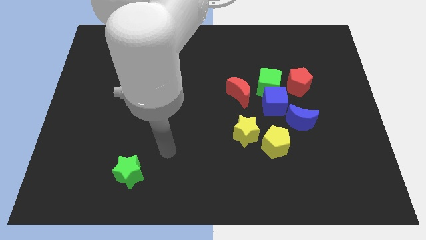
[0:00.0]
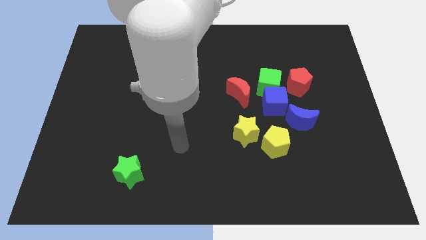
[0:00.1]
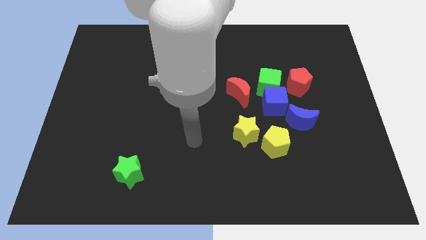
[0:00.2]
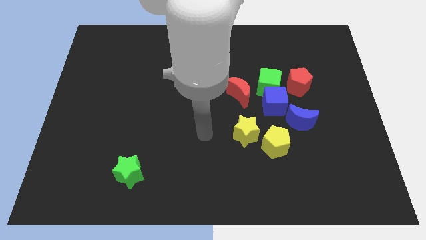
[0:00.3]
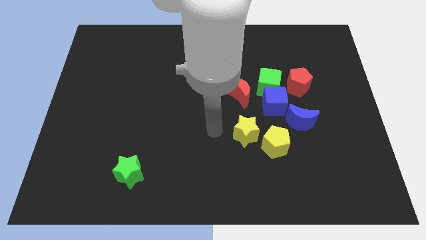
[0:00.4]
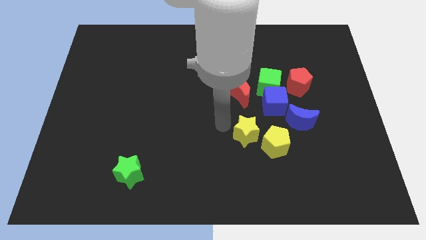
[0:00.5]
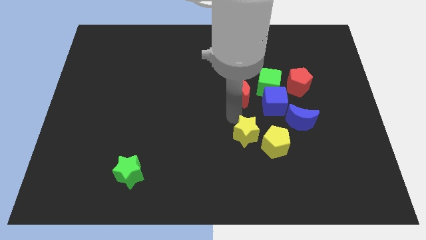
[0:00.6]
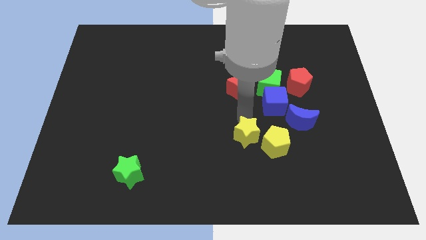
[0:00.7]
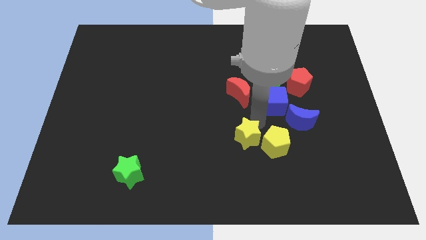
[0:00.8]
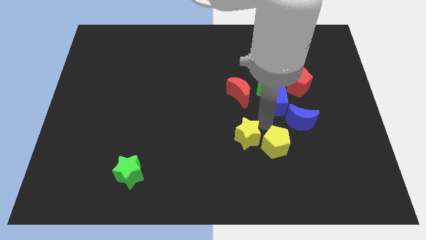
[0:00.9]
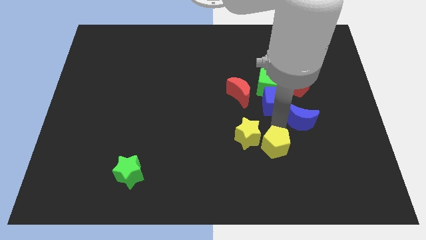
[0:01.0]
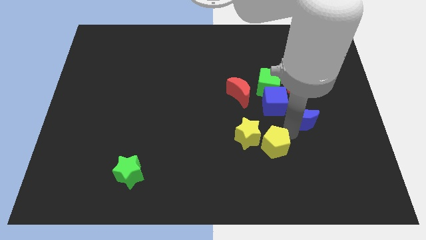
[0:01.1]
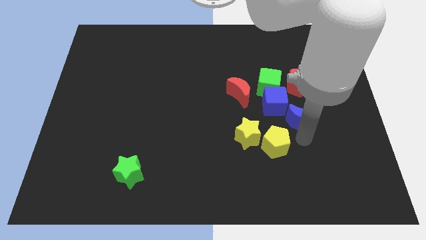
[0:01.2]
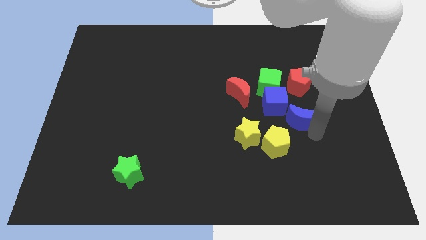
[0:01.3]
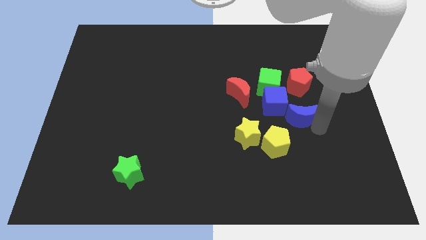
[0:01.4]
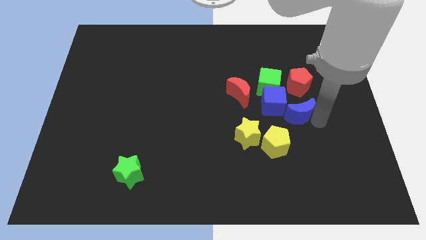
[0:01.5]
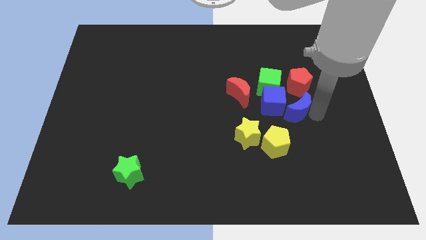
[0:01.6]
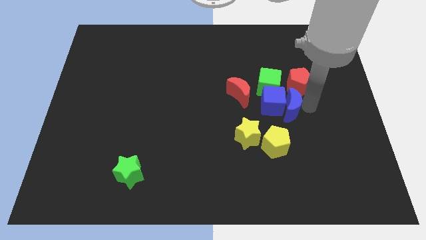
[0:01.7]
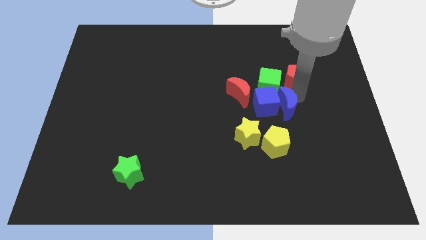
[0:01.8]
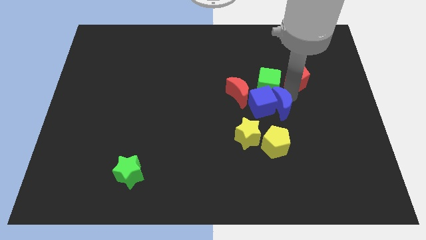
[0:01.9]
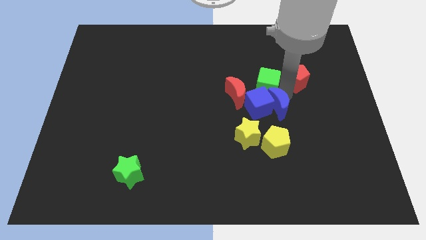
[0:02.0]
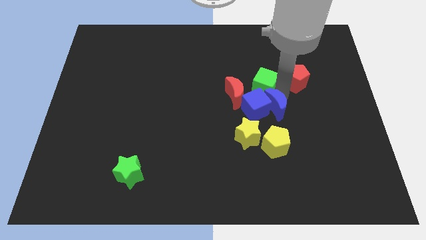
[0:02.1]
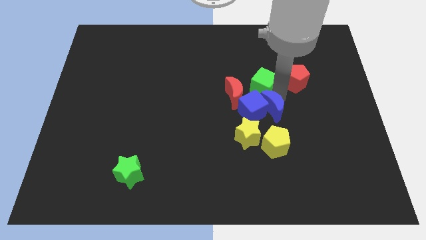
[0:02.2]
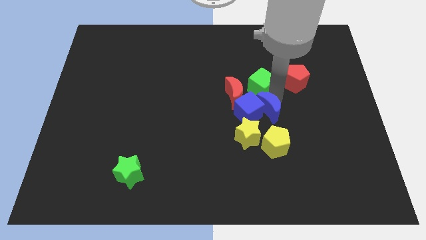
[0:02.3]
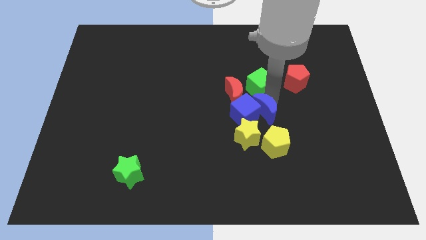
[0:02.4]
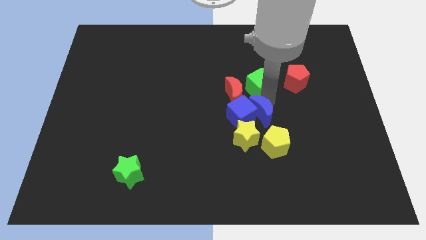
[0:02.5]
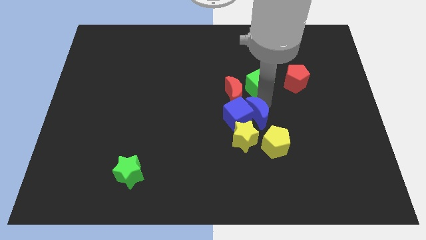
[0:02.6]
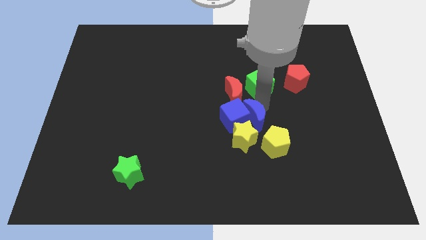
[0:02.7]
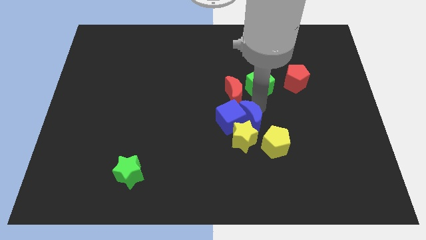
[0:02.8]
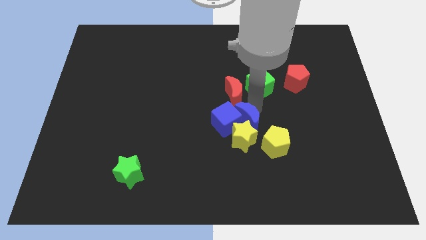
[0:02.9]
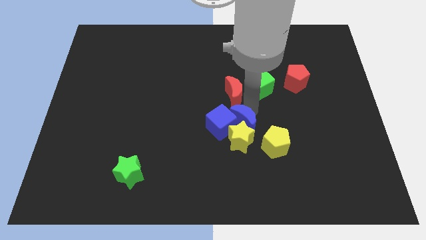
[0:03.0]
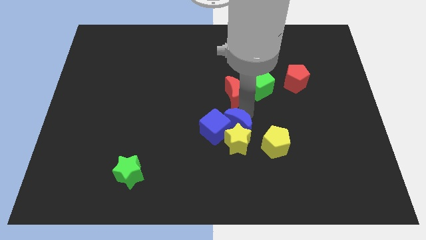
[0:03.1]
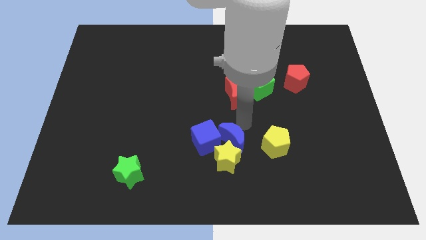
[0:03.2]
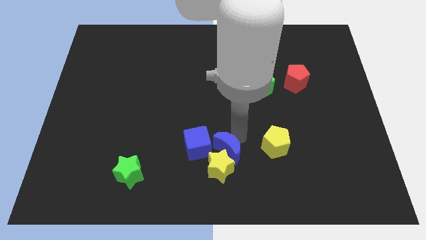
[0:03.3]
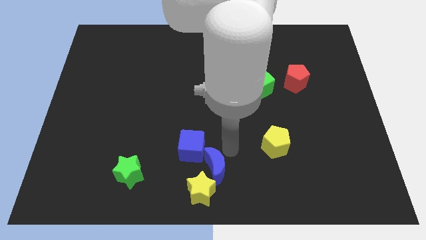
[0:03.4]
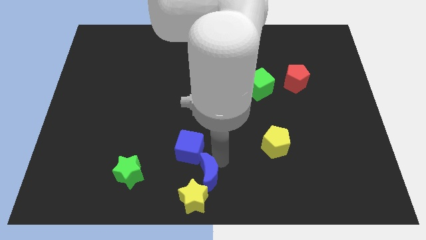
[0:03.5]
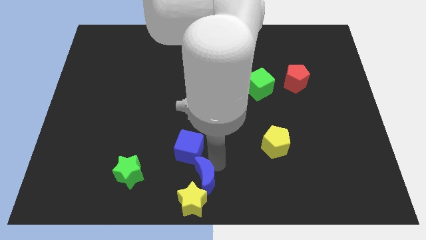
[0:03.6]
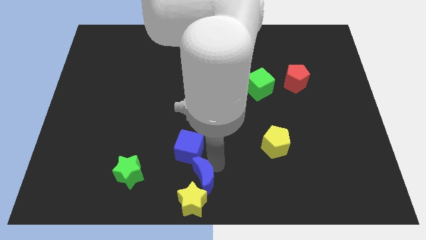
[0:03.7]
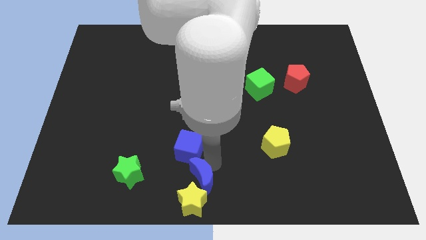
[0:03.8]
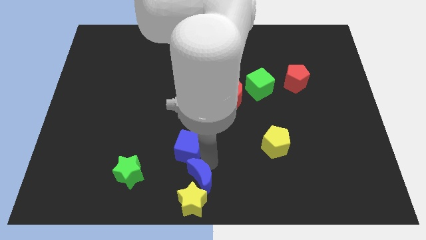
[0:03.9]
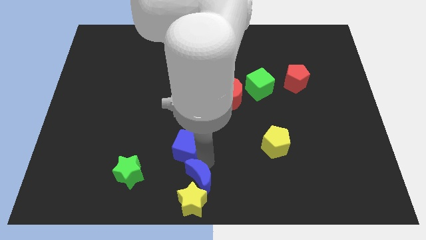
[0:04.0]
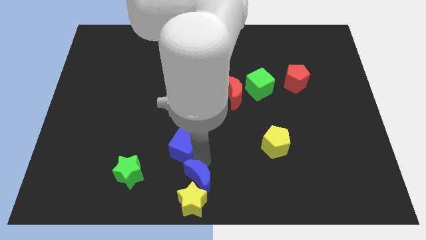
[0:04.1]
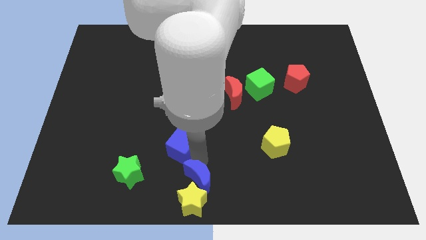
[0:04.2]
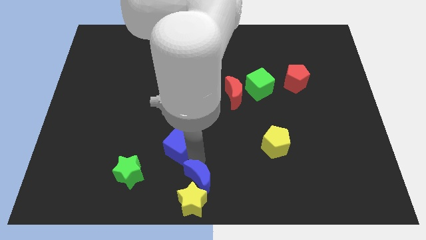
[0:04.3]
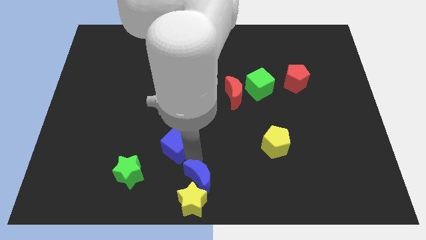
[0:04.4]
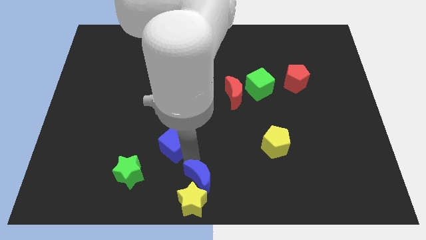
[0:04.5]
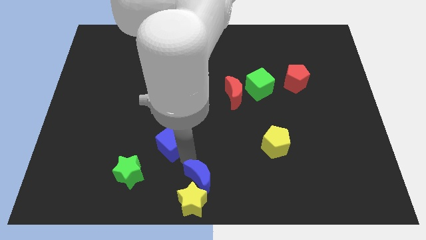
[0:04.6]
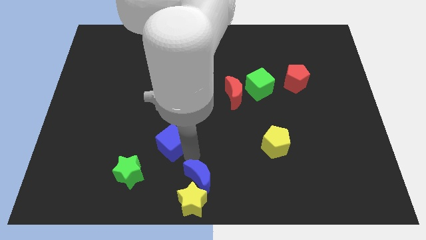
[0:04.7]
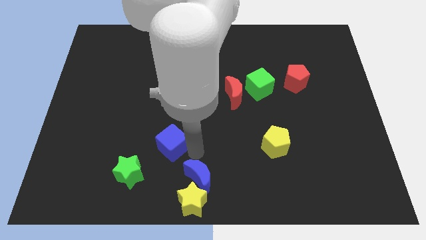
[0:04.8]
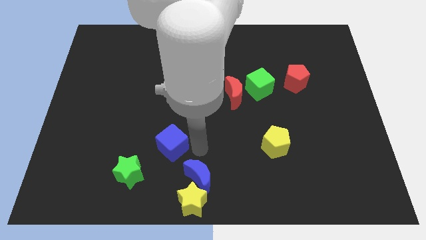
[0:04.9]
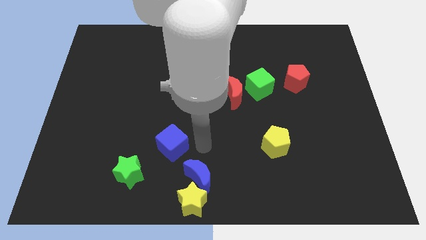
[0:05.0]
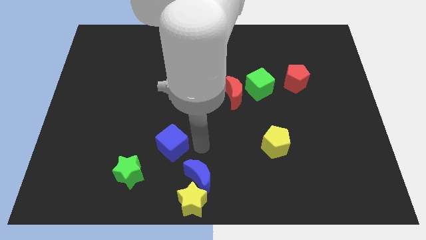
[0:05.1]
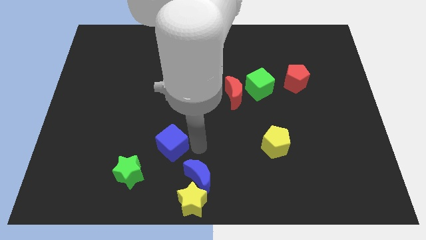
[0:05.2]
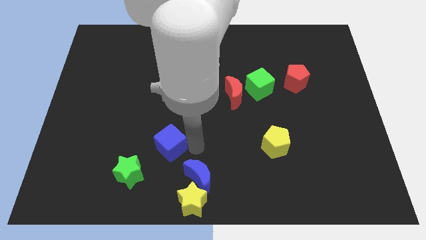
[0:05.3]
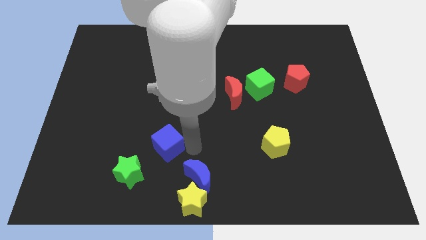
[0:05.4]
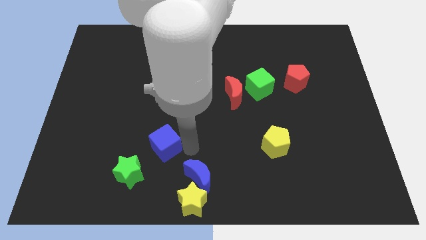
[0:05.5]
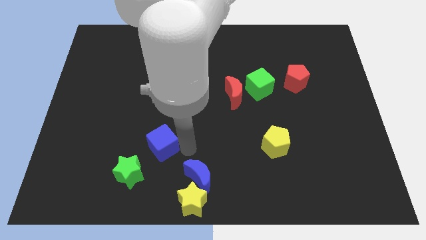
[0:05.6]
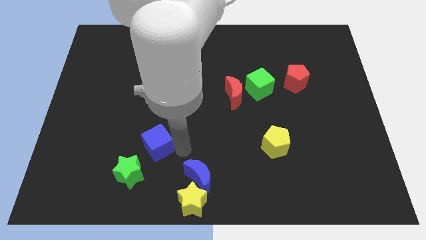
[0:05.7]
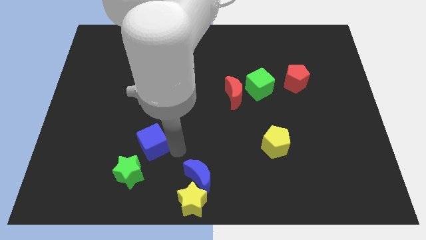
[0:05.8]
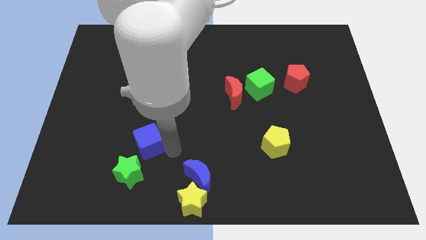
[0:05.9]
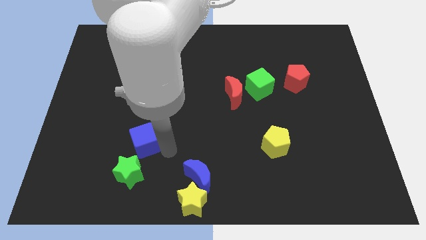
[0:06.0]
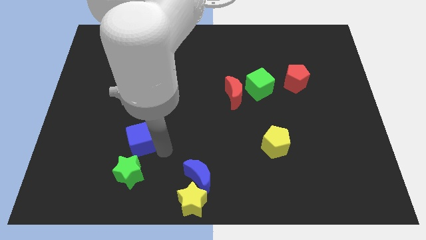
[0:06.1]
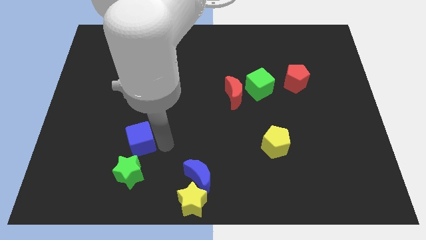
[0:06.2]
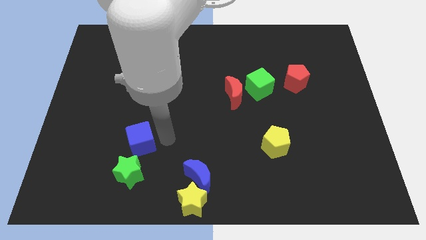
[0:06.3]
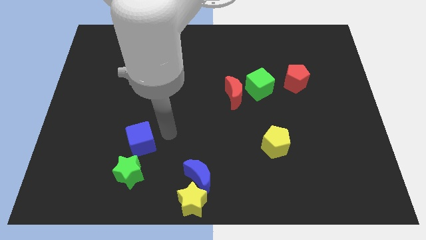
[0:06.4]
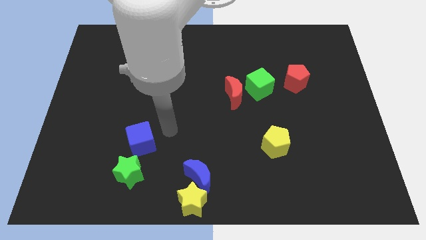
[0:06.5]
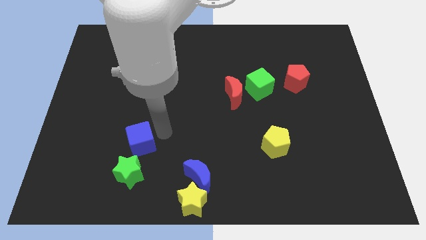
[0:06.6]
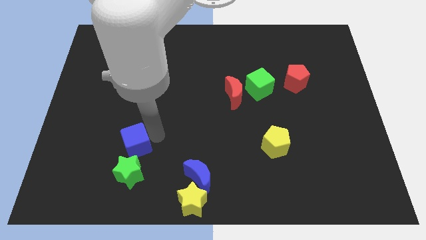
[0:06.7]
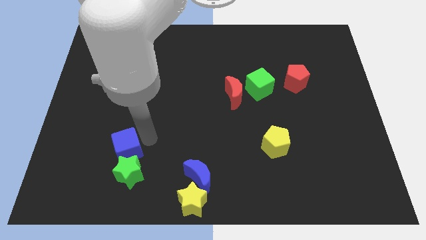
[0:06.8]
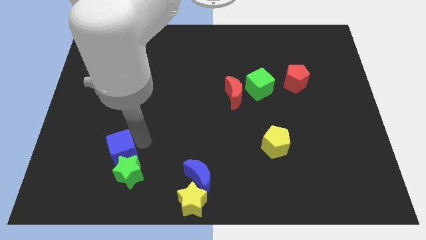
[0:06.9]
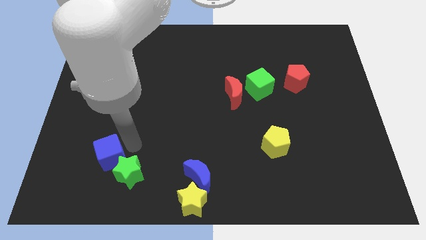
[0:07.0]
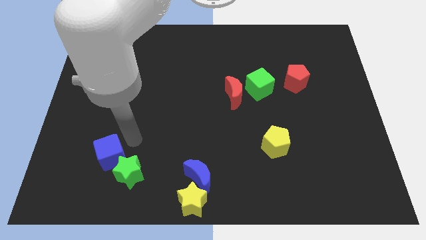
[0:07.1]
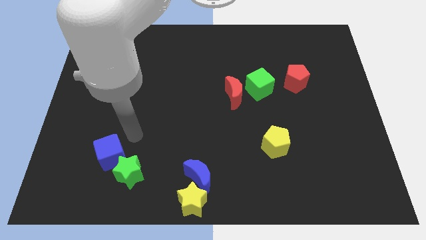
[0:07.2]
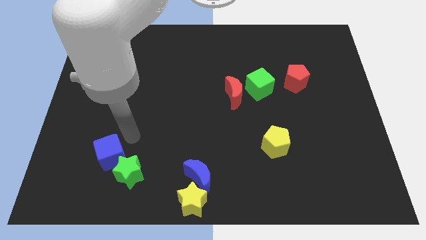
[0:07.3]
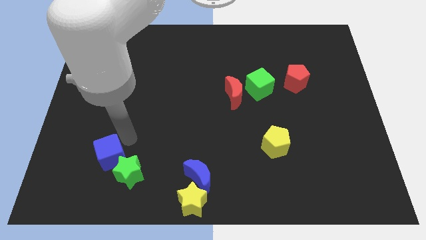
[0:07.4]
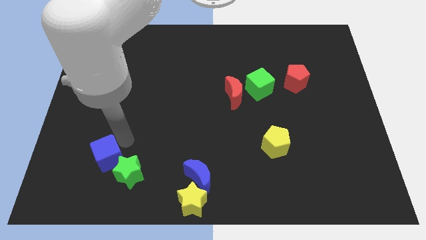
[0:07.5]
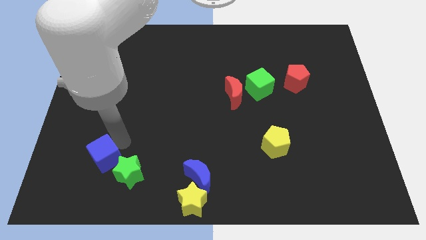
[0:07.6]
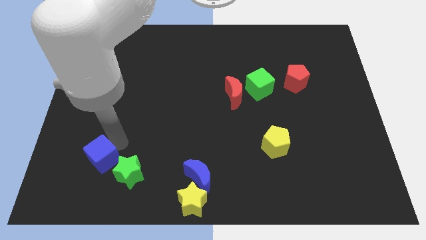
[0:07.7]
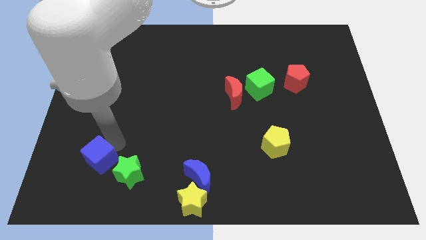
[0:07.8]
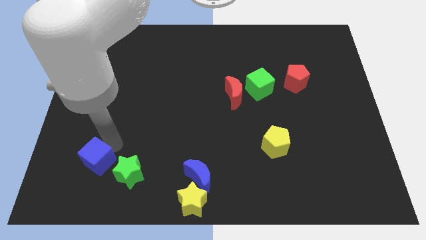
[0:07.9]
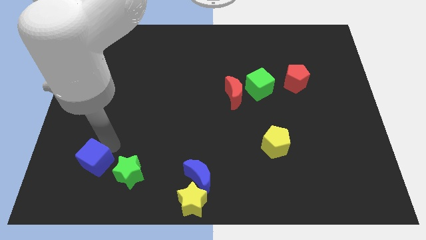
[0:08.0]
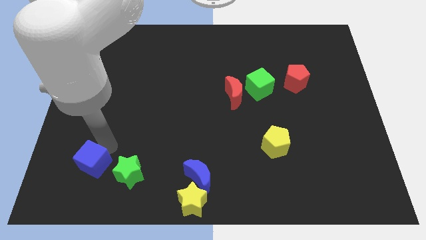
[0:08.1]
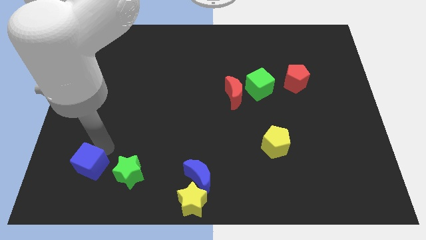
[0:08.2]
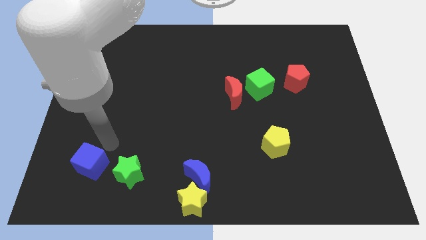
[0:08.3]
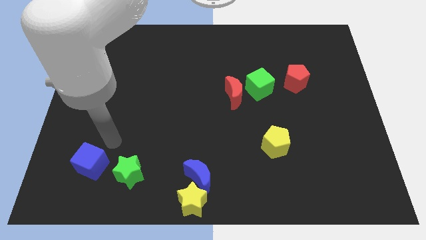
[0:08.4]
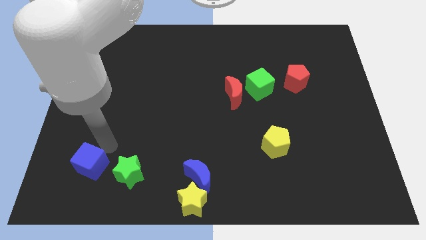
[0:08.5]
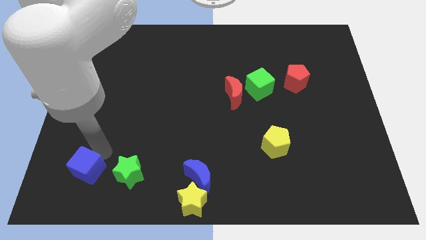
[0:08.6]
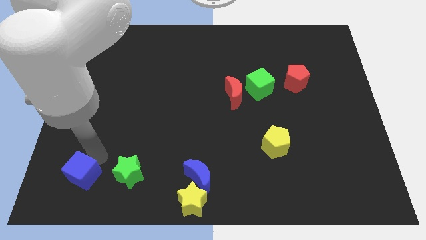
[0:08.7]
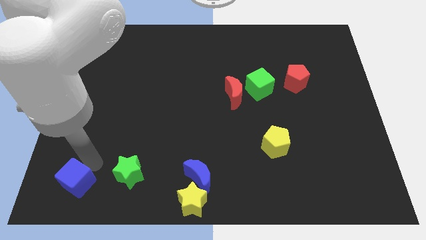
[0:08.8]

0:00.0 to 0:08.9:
put the blue cube to the bottom left
